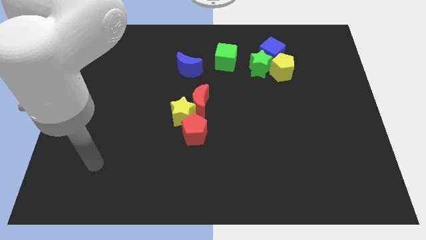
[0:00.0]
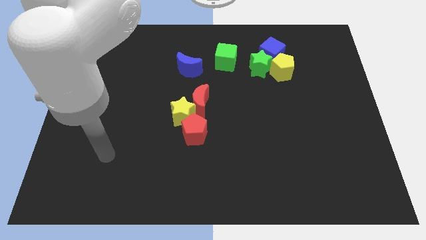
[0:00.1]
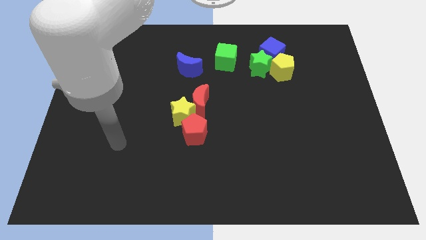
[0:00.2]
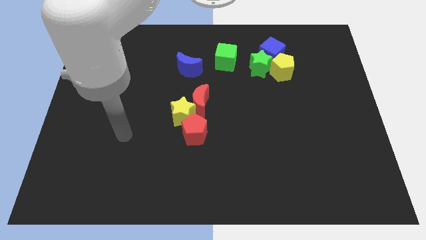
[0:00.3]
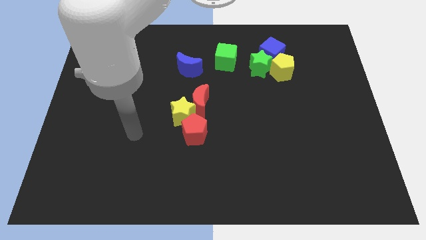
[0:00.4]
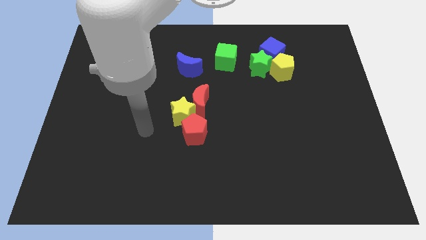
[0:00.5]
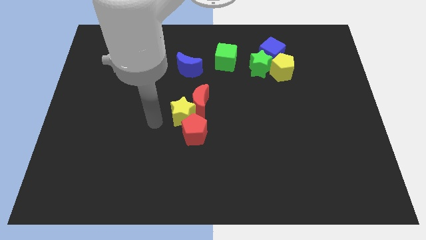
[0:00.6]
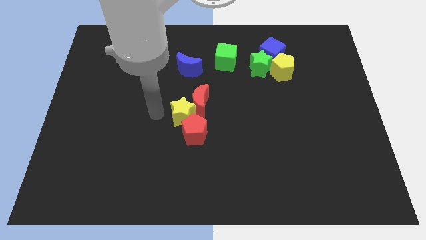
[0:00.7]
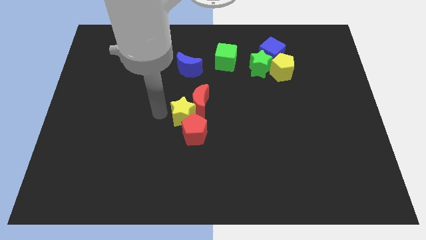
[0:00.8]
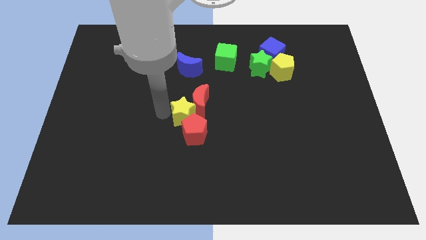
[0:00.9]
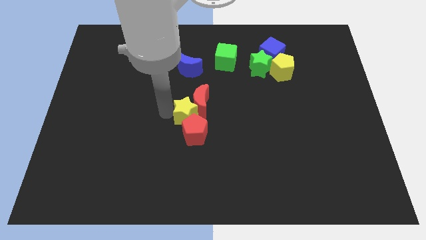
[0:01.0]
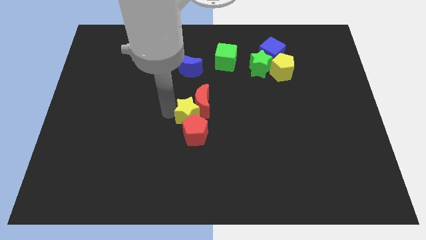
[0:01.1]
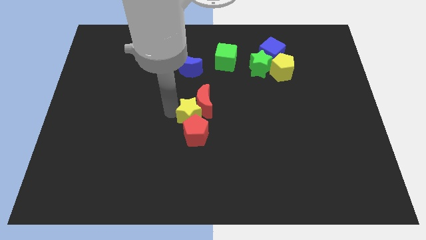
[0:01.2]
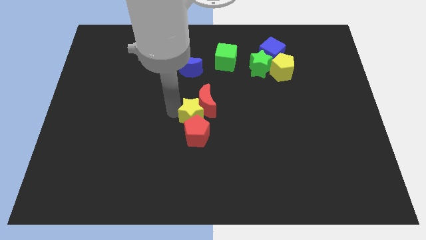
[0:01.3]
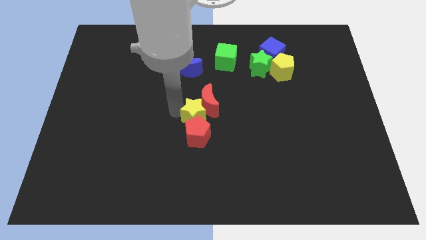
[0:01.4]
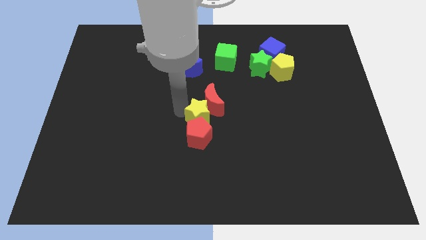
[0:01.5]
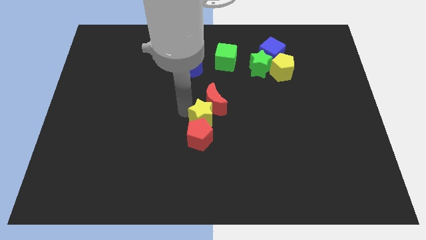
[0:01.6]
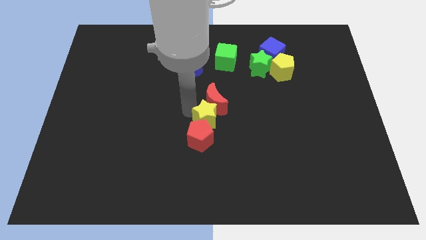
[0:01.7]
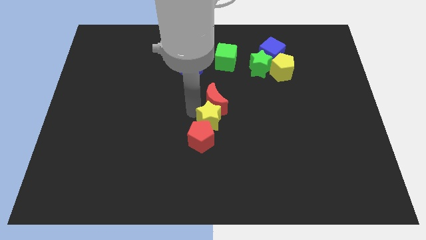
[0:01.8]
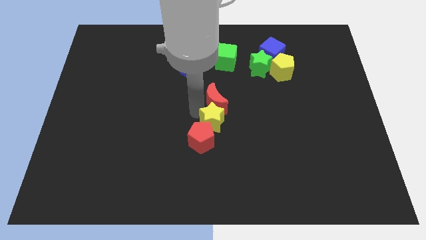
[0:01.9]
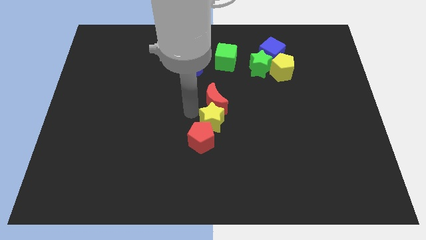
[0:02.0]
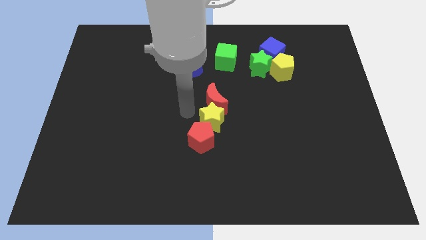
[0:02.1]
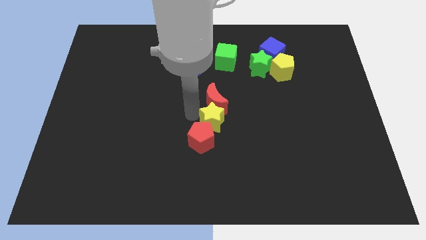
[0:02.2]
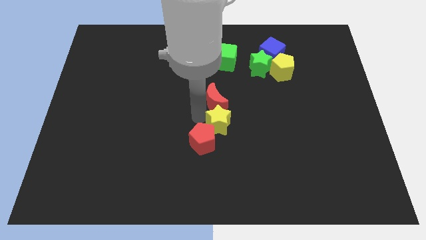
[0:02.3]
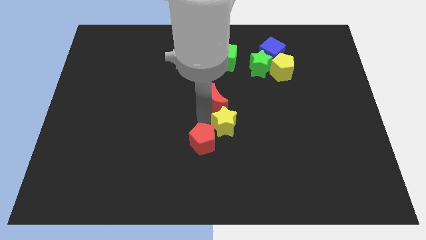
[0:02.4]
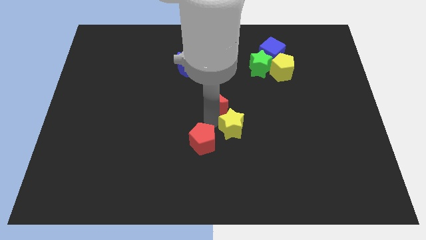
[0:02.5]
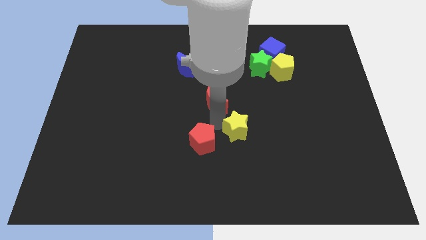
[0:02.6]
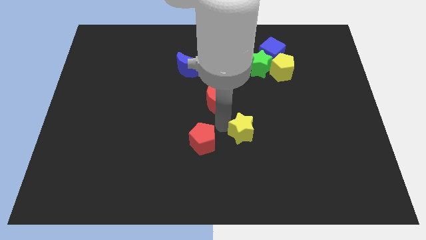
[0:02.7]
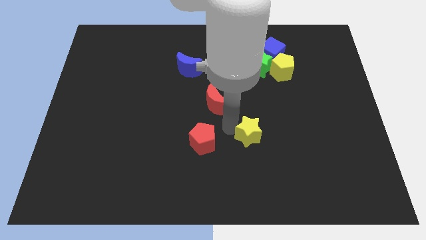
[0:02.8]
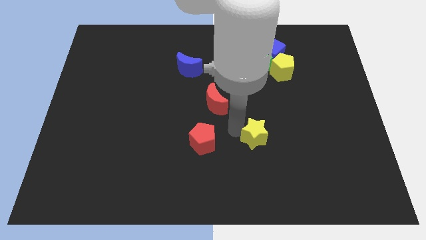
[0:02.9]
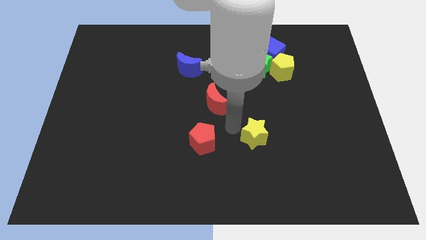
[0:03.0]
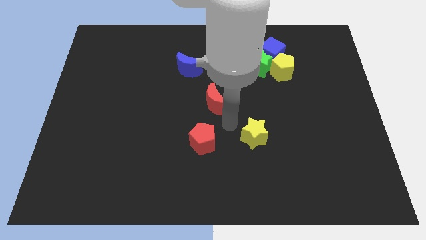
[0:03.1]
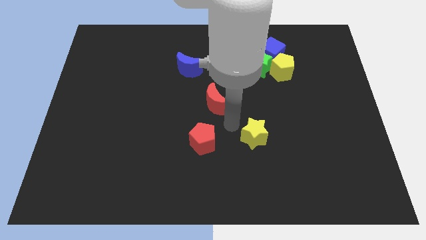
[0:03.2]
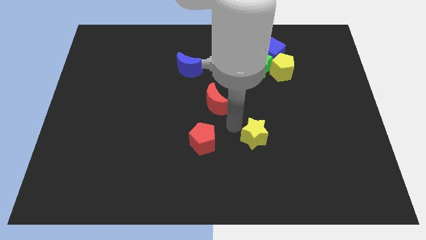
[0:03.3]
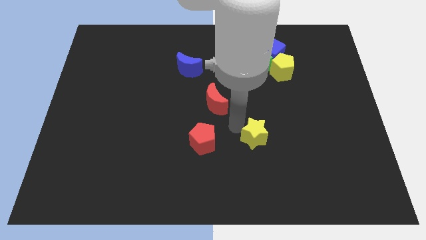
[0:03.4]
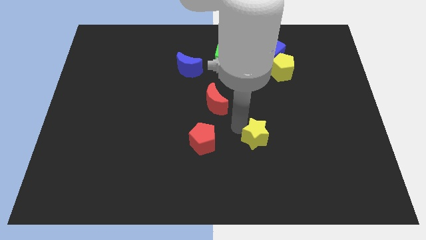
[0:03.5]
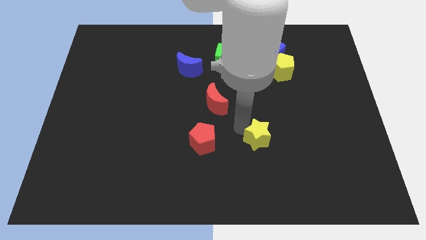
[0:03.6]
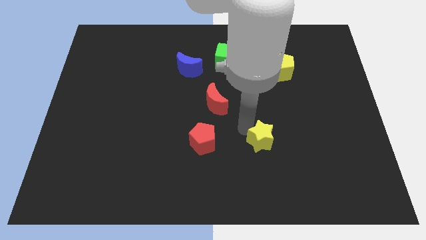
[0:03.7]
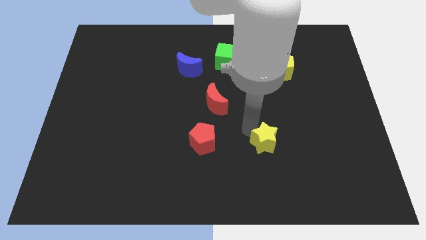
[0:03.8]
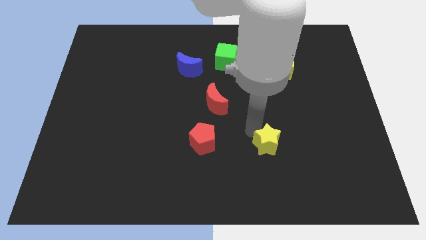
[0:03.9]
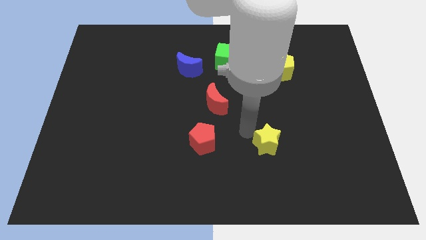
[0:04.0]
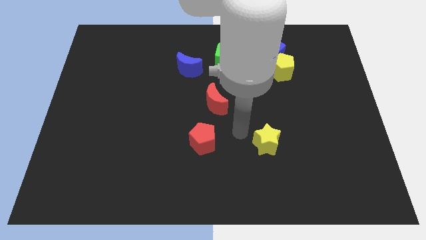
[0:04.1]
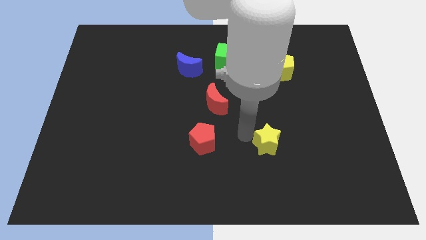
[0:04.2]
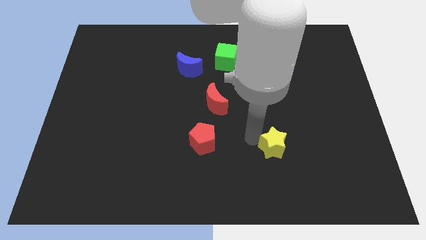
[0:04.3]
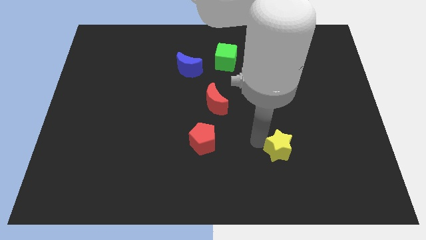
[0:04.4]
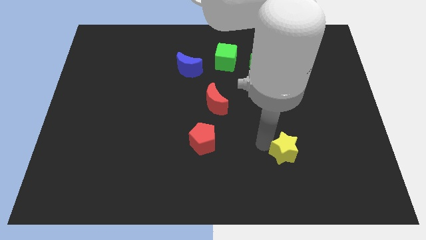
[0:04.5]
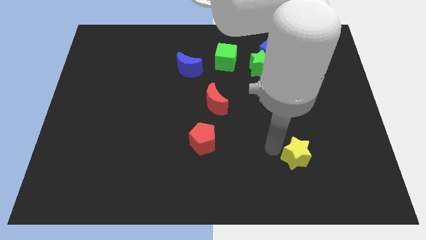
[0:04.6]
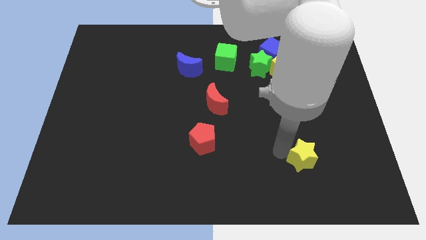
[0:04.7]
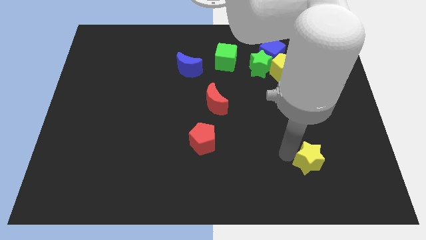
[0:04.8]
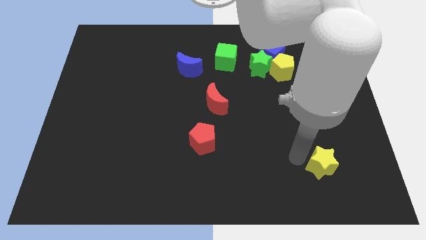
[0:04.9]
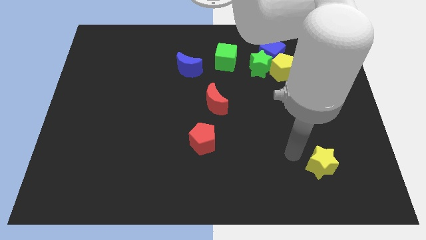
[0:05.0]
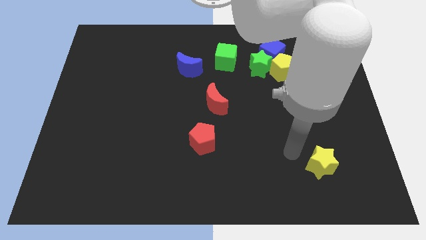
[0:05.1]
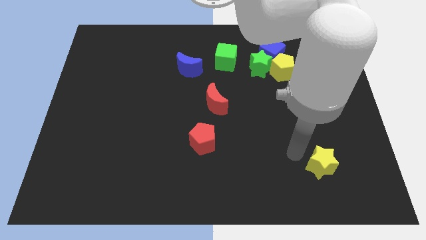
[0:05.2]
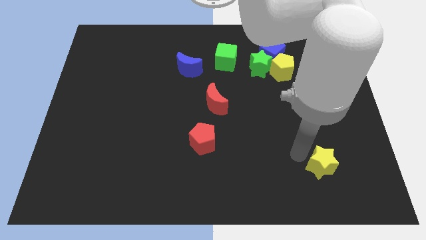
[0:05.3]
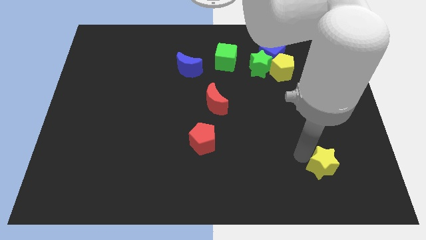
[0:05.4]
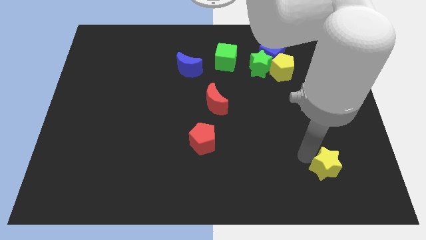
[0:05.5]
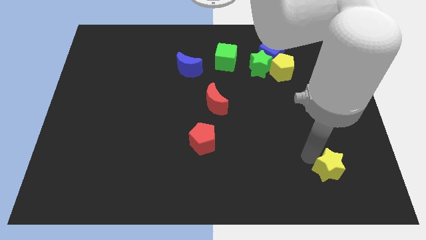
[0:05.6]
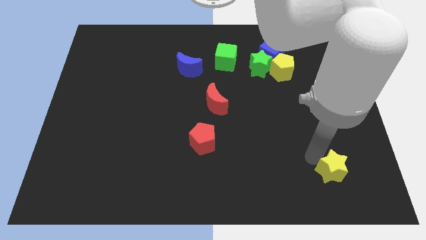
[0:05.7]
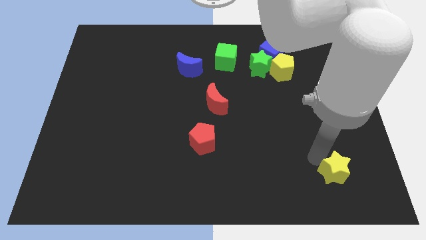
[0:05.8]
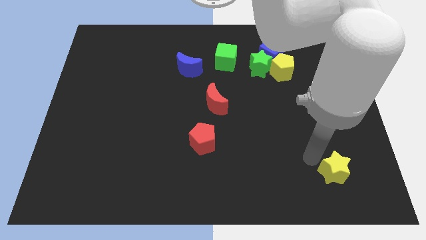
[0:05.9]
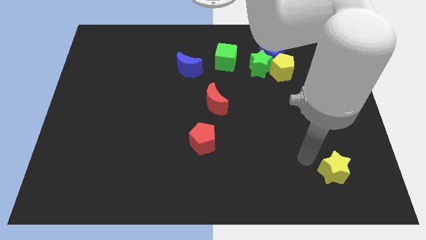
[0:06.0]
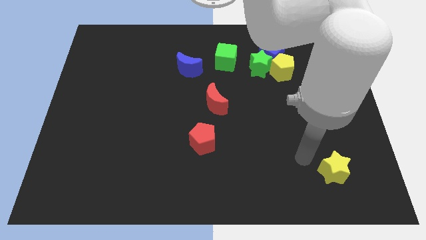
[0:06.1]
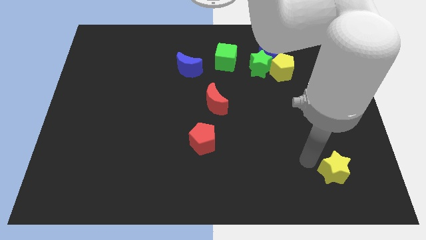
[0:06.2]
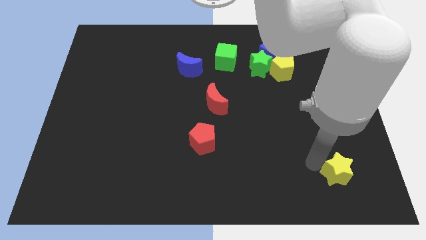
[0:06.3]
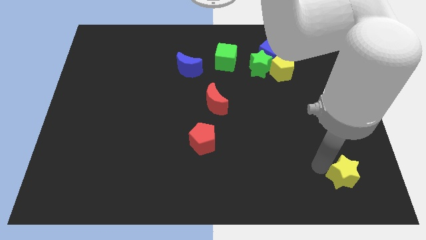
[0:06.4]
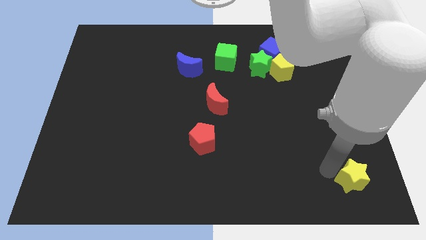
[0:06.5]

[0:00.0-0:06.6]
move the yellow star to the bottom right of the board

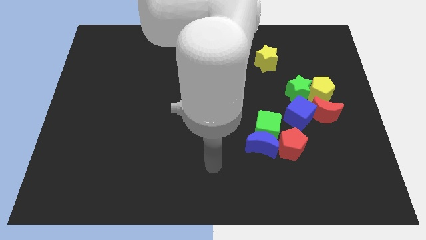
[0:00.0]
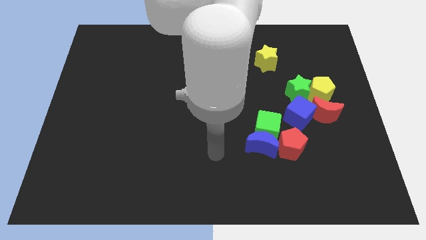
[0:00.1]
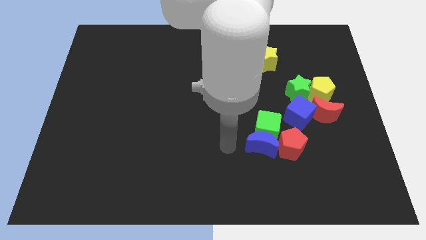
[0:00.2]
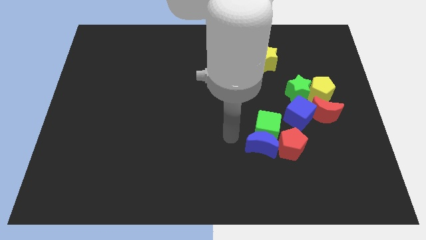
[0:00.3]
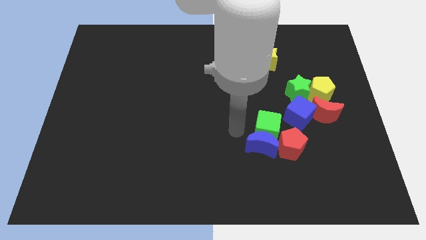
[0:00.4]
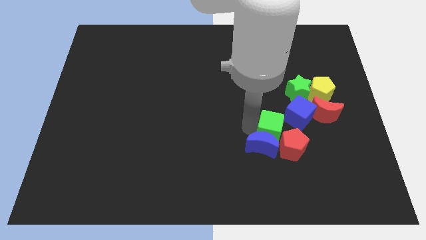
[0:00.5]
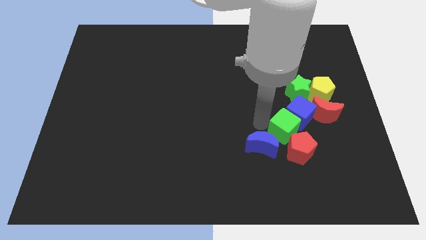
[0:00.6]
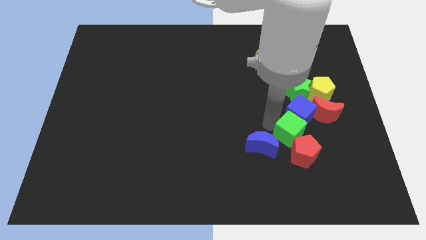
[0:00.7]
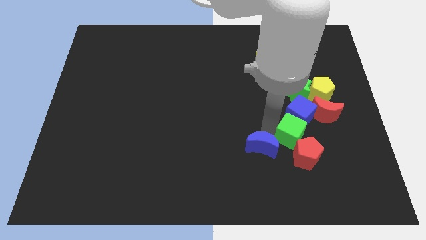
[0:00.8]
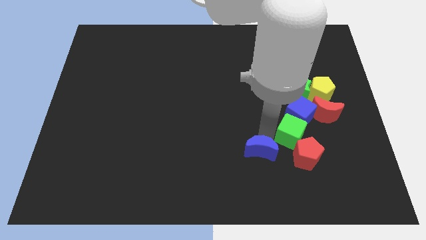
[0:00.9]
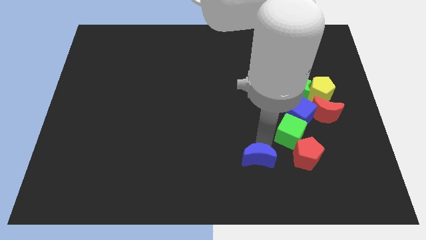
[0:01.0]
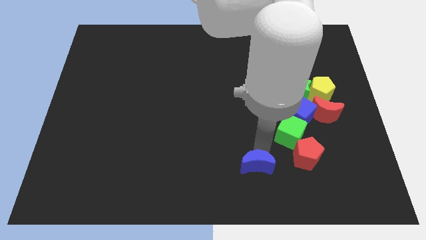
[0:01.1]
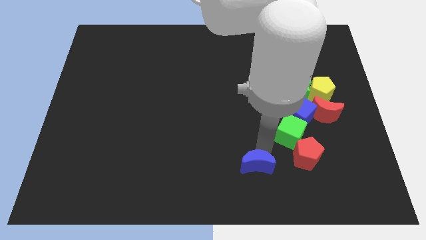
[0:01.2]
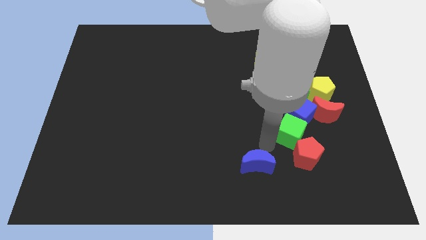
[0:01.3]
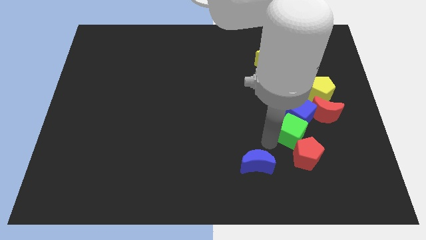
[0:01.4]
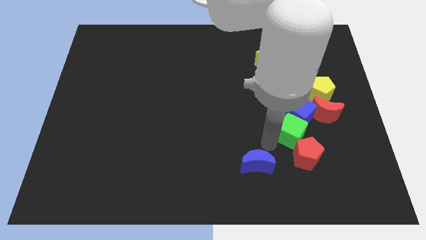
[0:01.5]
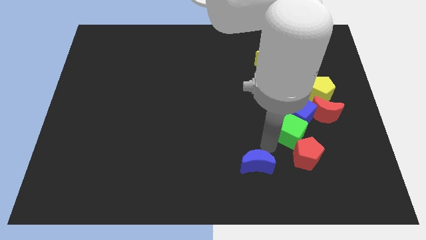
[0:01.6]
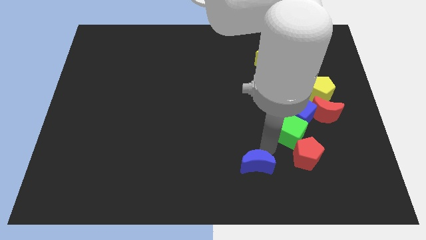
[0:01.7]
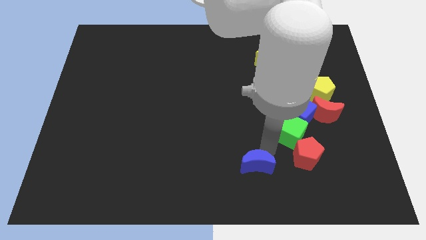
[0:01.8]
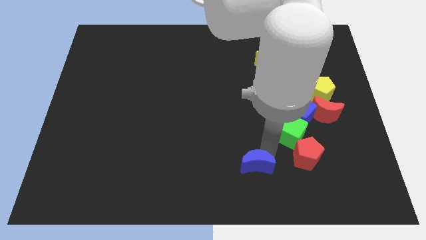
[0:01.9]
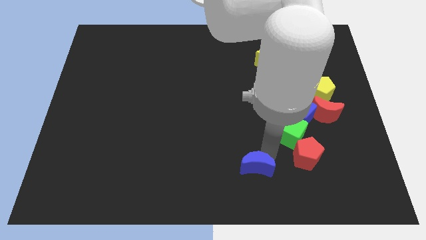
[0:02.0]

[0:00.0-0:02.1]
slide the blue moon to the bottom
